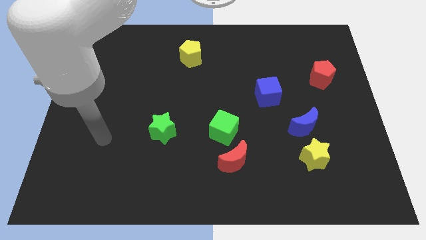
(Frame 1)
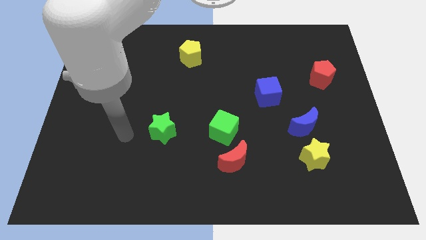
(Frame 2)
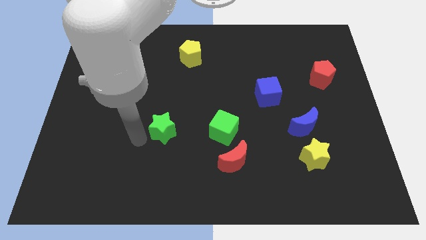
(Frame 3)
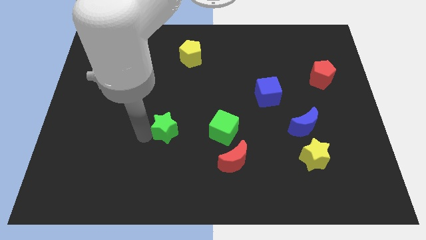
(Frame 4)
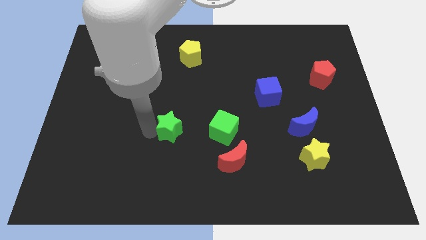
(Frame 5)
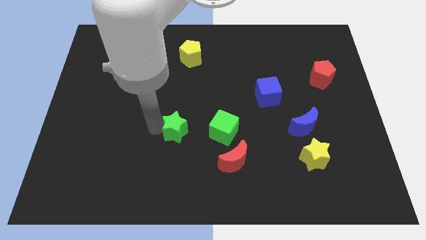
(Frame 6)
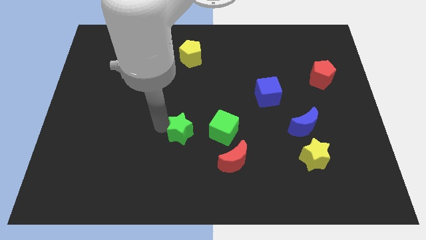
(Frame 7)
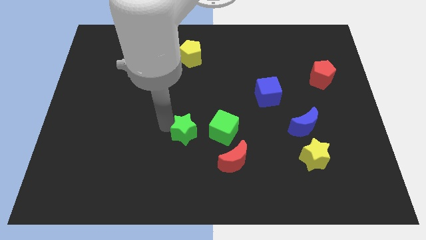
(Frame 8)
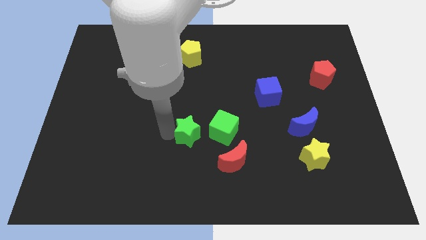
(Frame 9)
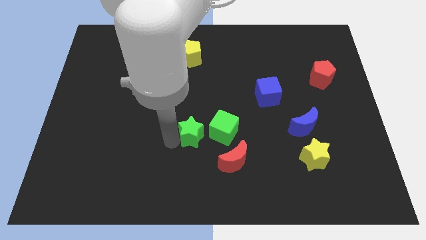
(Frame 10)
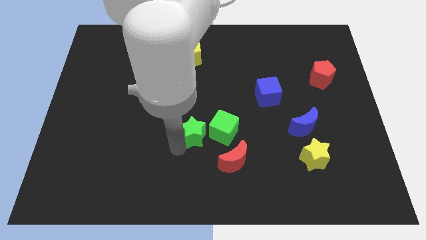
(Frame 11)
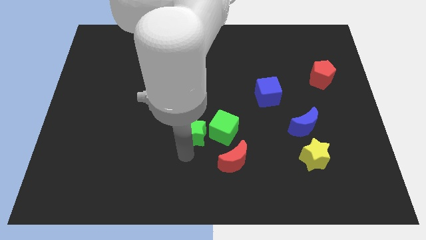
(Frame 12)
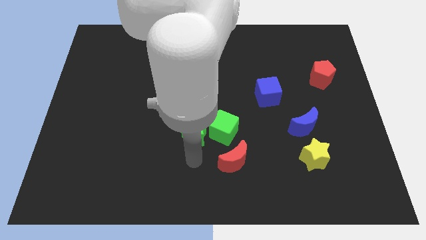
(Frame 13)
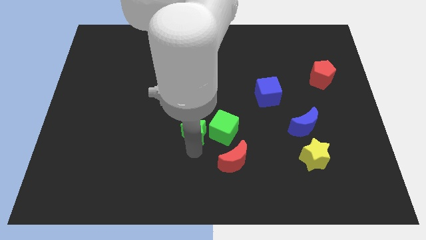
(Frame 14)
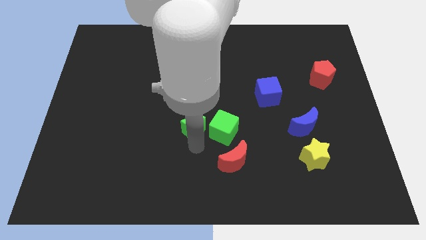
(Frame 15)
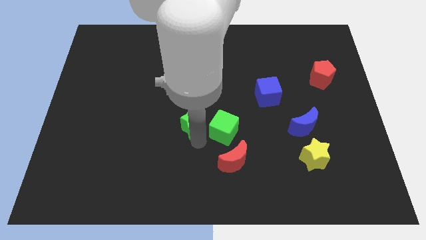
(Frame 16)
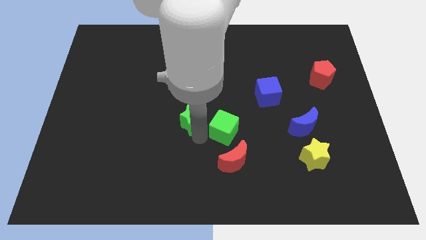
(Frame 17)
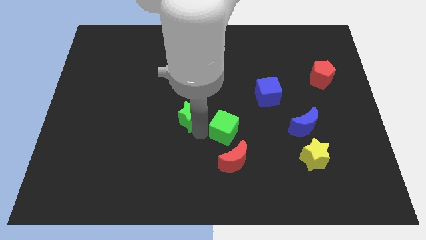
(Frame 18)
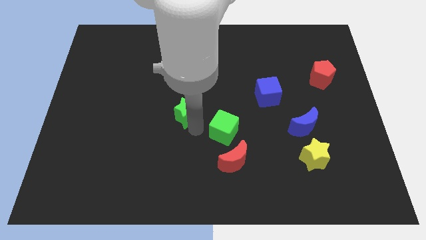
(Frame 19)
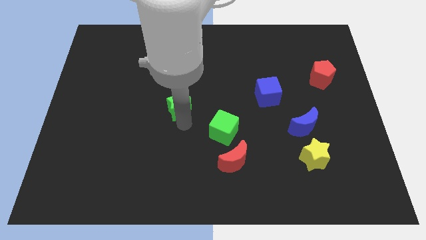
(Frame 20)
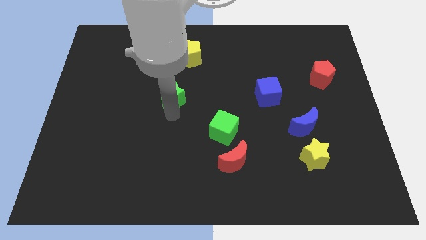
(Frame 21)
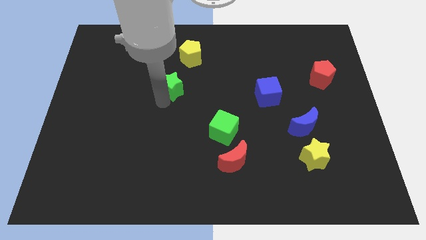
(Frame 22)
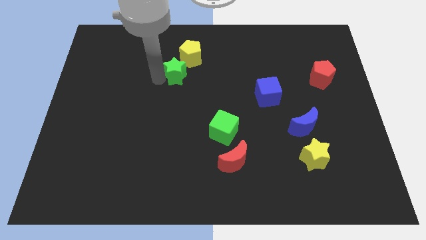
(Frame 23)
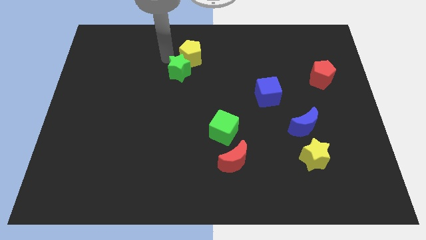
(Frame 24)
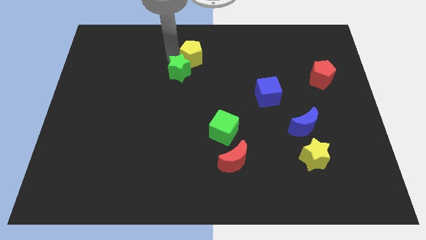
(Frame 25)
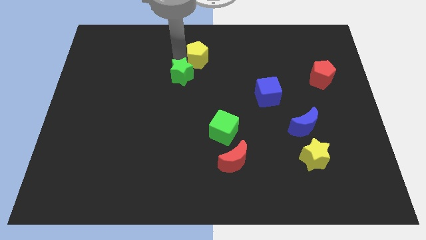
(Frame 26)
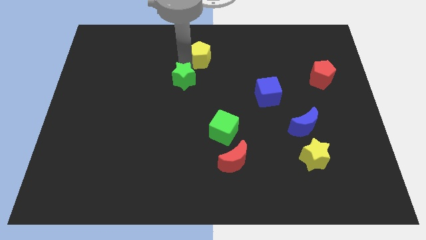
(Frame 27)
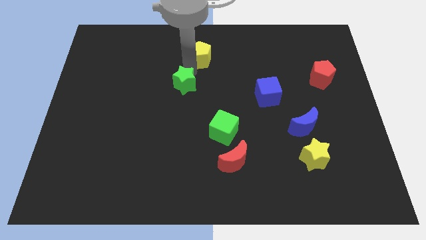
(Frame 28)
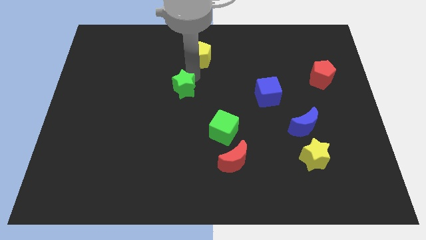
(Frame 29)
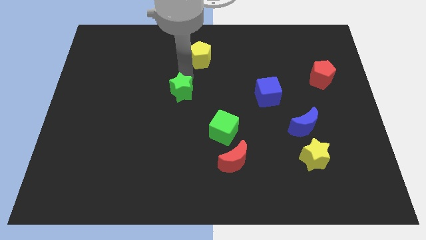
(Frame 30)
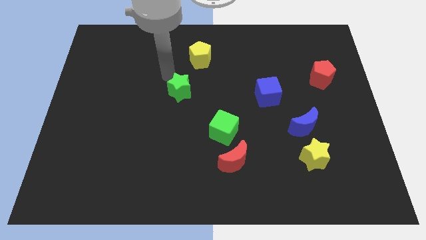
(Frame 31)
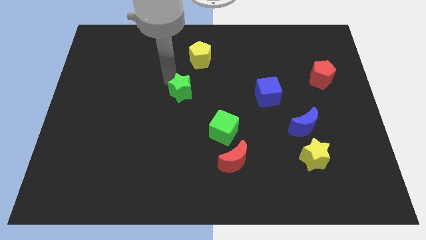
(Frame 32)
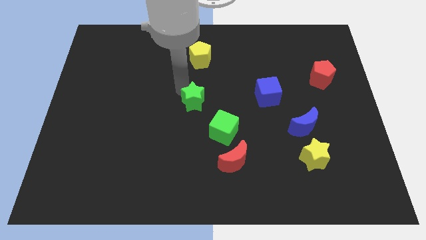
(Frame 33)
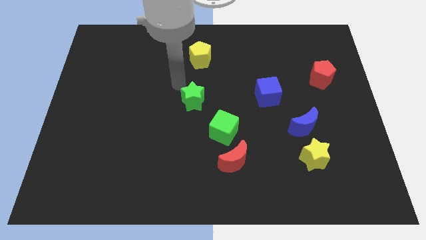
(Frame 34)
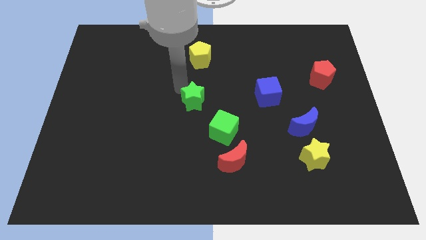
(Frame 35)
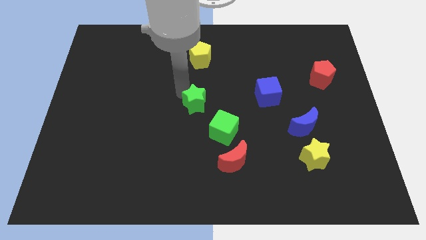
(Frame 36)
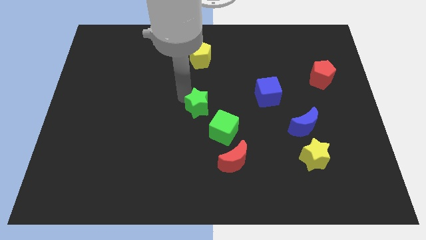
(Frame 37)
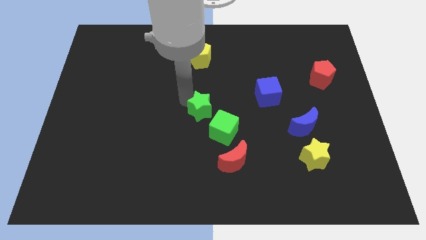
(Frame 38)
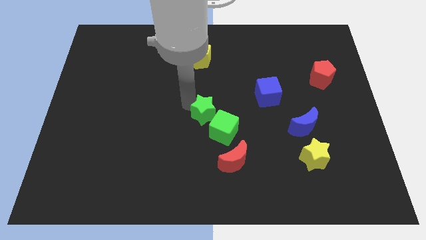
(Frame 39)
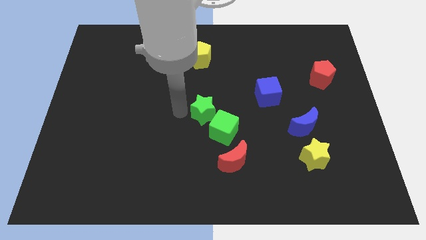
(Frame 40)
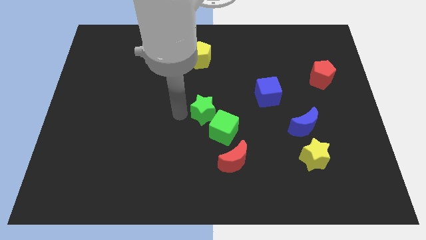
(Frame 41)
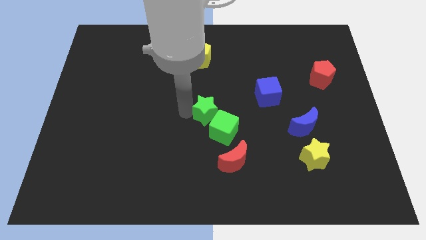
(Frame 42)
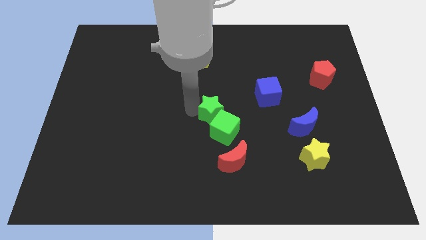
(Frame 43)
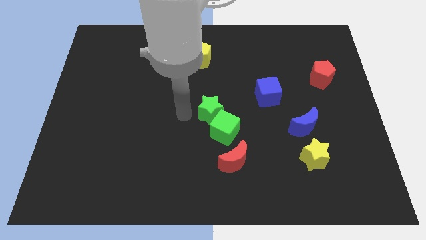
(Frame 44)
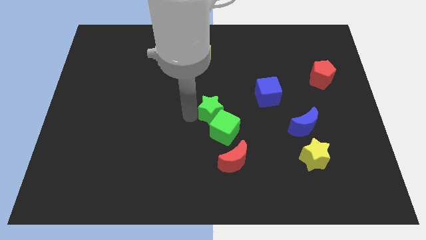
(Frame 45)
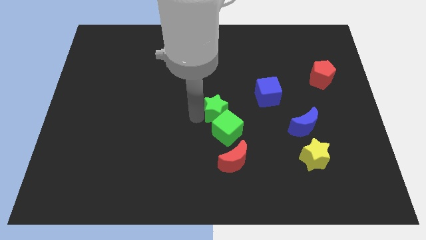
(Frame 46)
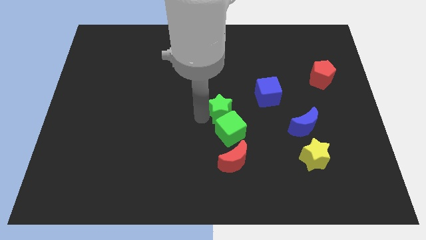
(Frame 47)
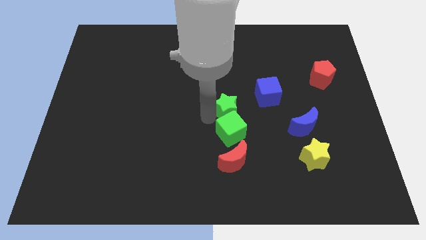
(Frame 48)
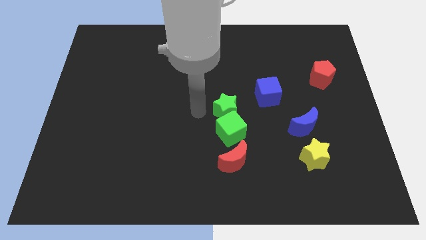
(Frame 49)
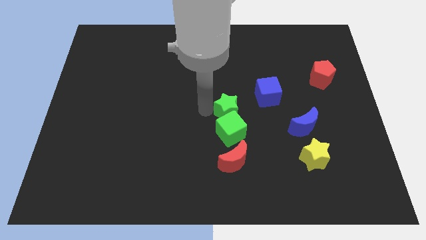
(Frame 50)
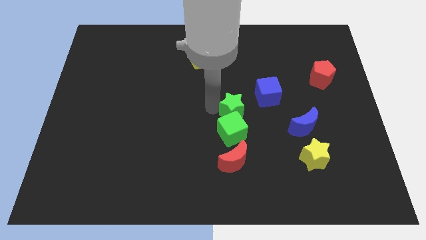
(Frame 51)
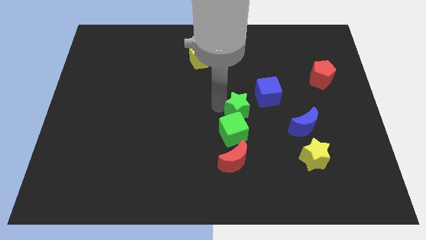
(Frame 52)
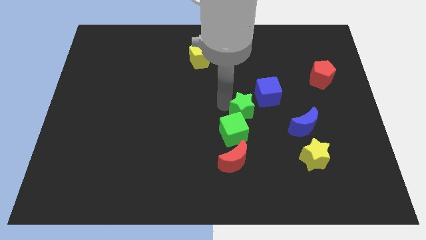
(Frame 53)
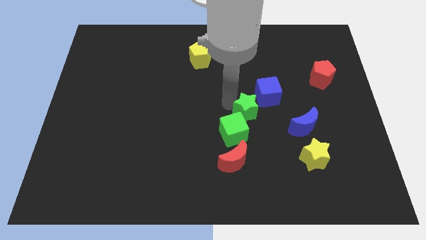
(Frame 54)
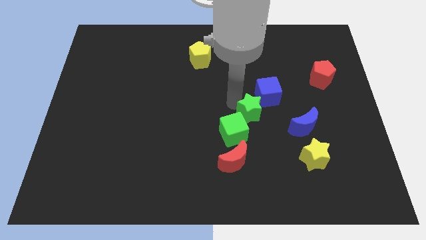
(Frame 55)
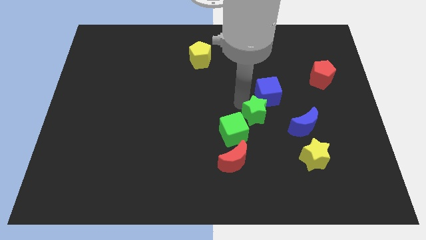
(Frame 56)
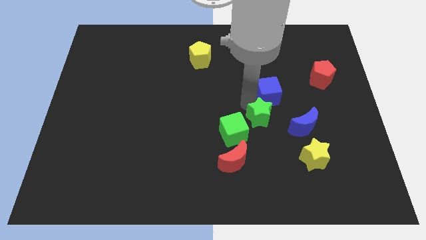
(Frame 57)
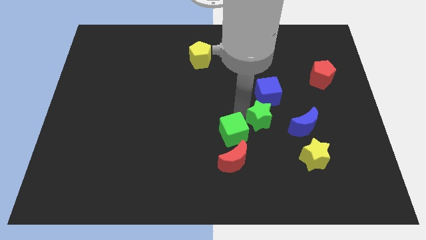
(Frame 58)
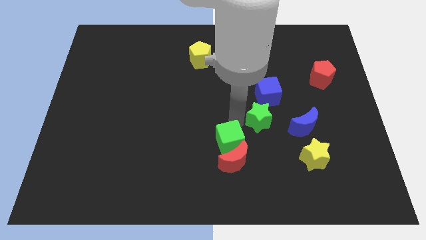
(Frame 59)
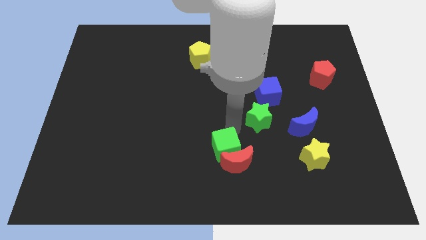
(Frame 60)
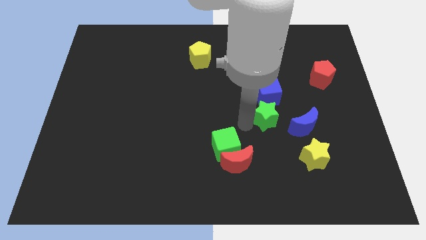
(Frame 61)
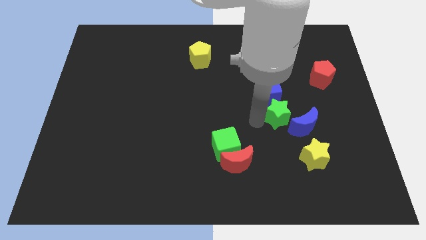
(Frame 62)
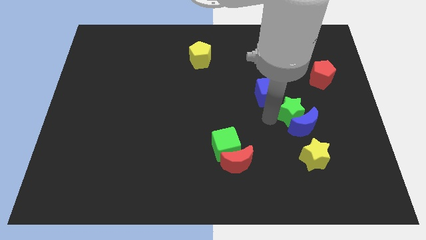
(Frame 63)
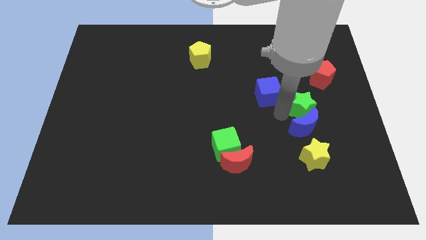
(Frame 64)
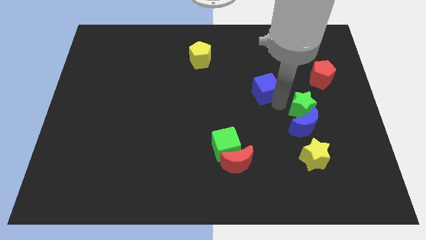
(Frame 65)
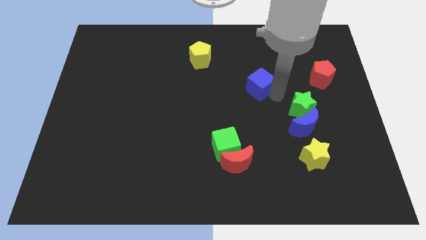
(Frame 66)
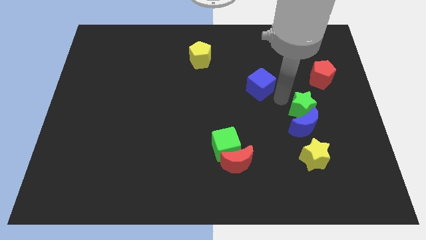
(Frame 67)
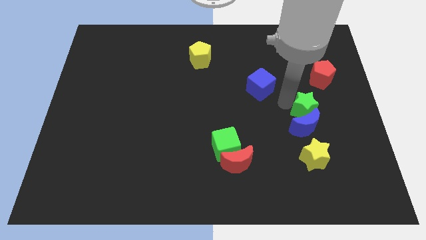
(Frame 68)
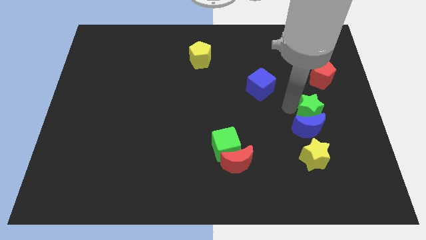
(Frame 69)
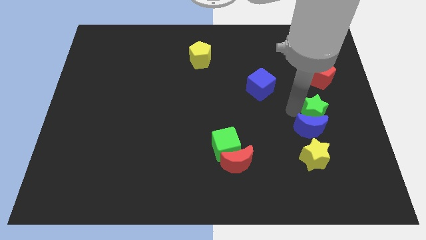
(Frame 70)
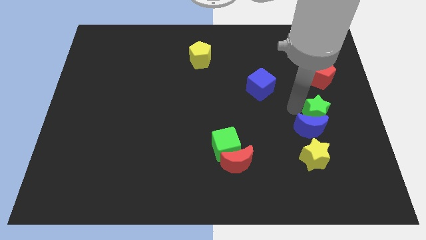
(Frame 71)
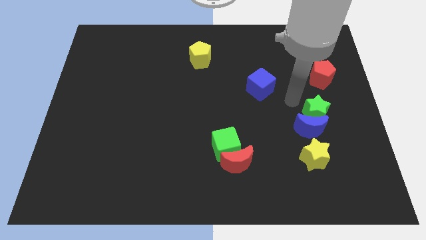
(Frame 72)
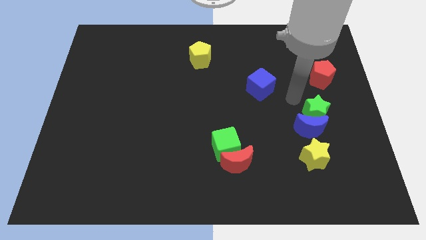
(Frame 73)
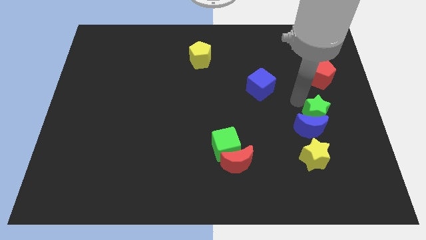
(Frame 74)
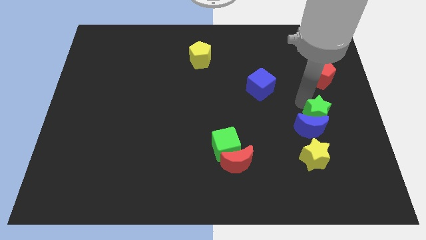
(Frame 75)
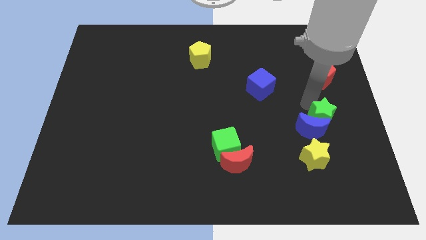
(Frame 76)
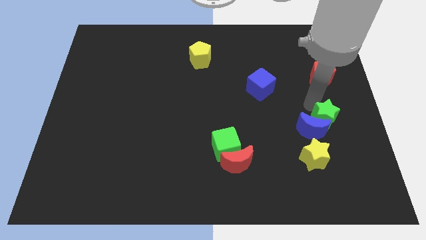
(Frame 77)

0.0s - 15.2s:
push the green star diagonally up and to the right of the yellow star
